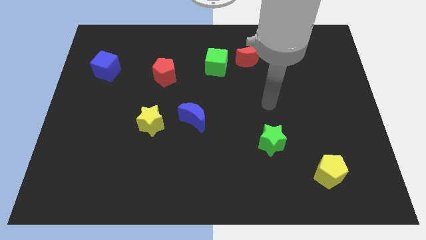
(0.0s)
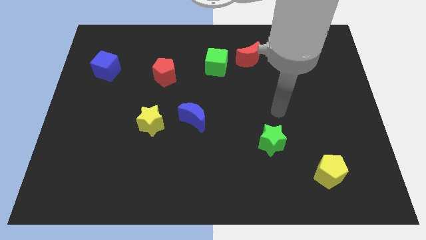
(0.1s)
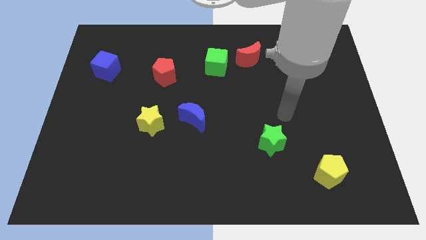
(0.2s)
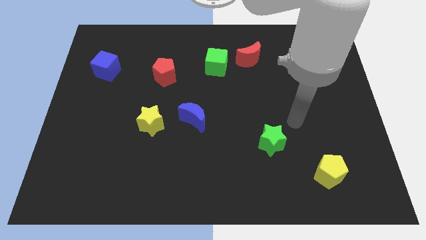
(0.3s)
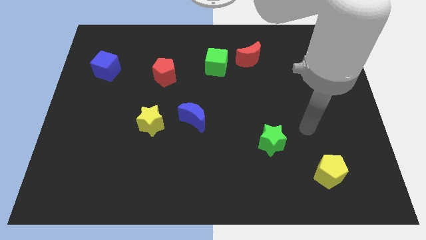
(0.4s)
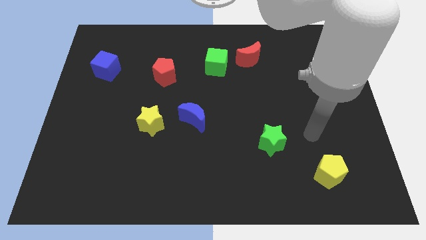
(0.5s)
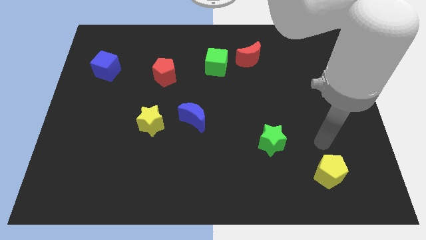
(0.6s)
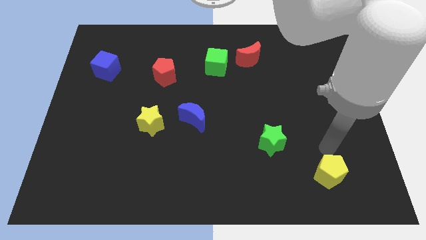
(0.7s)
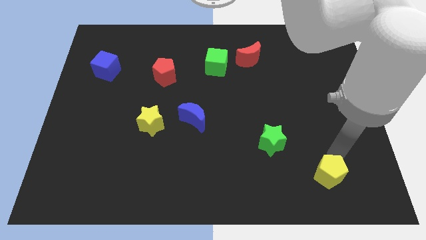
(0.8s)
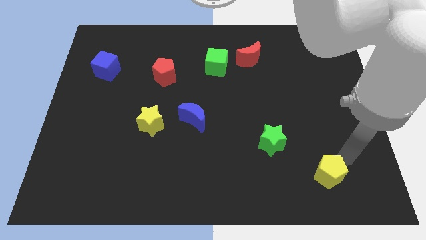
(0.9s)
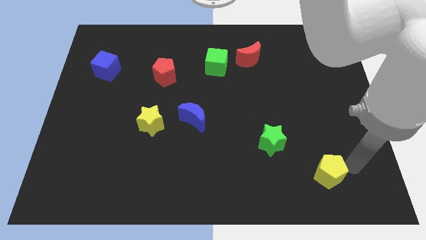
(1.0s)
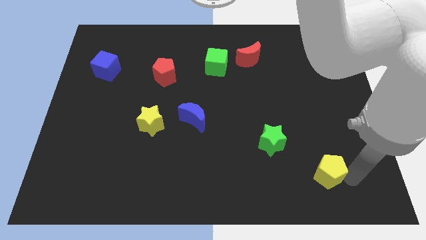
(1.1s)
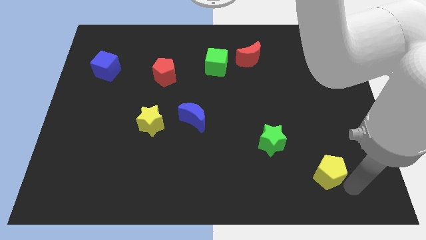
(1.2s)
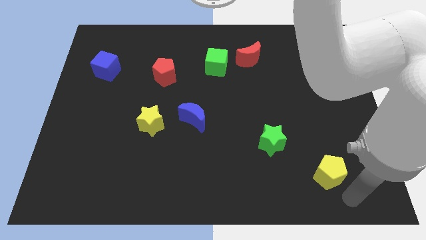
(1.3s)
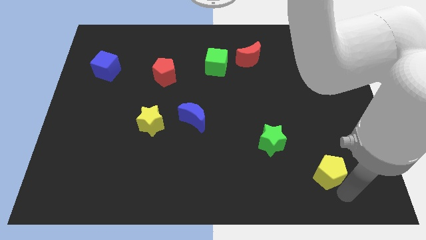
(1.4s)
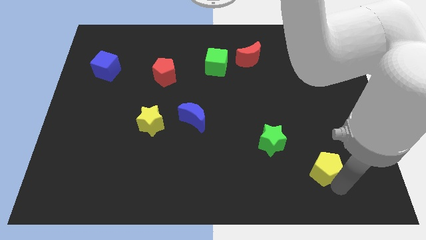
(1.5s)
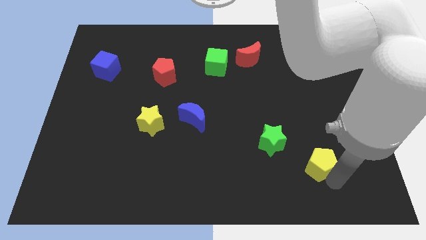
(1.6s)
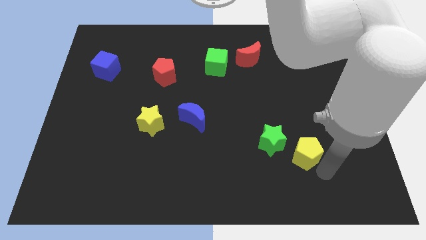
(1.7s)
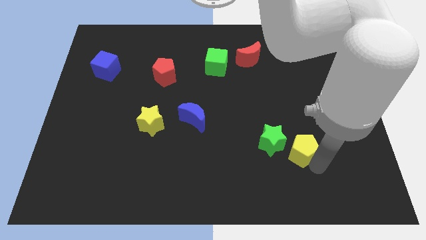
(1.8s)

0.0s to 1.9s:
move the yellow pentagon up and left somewhat

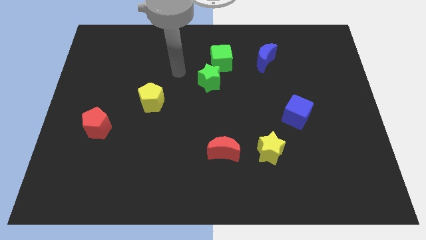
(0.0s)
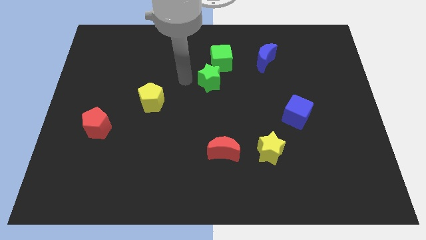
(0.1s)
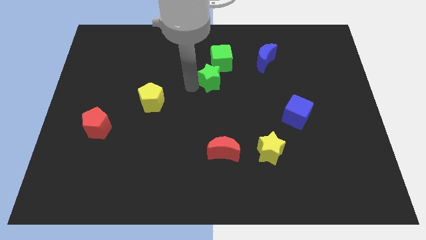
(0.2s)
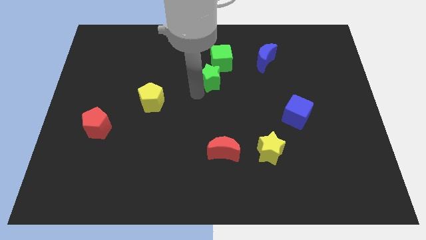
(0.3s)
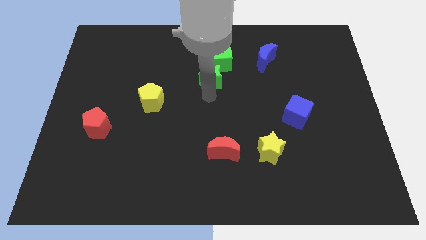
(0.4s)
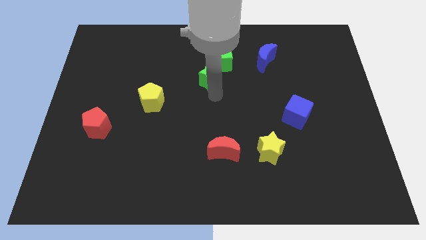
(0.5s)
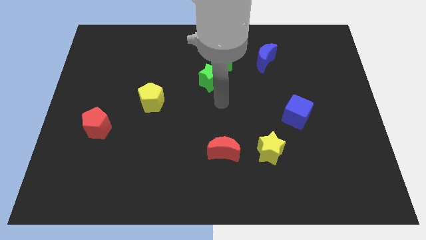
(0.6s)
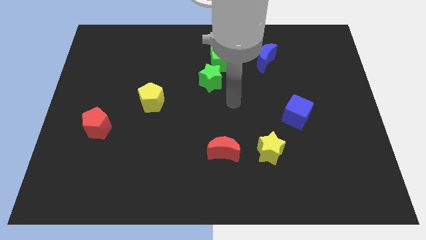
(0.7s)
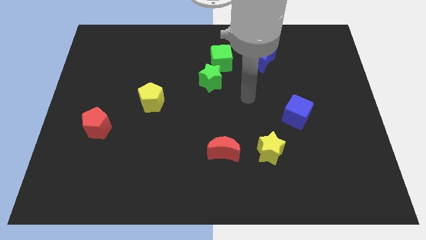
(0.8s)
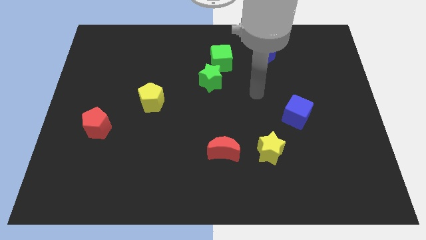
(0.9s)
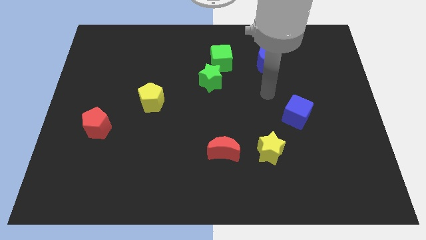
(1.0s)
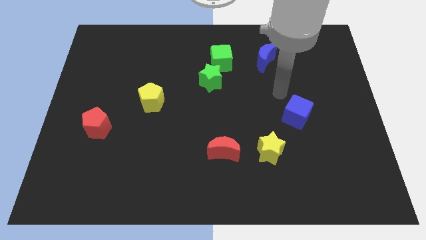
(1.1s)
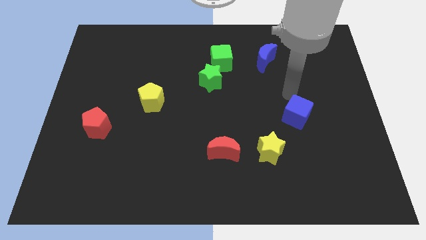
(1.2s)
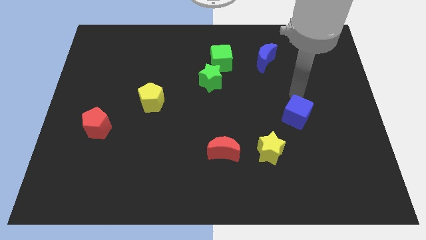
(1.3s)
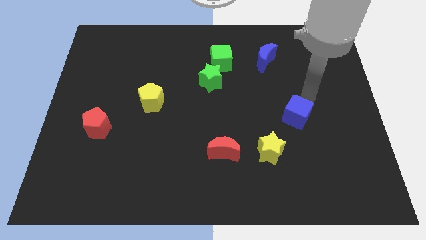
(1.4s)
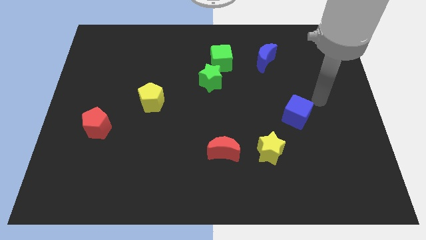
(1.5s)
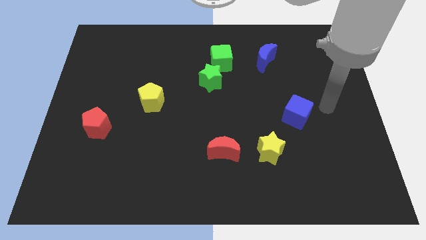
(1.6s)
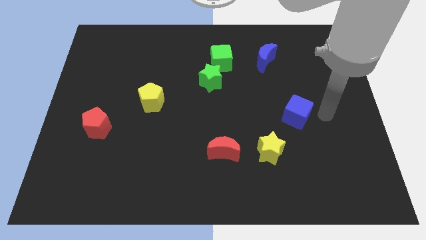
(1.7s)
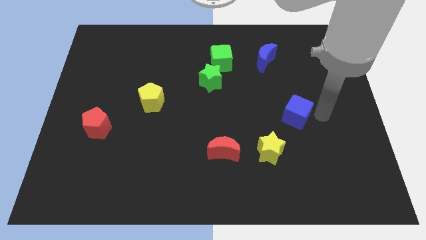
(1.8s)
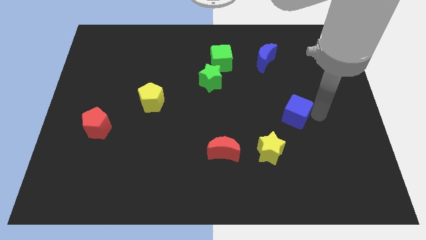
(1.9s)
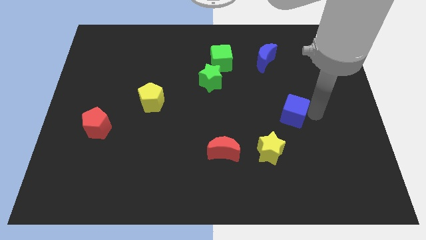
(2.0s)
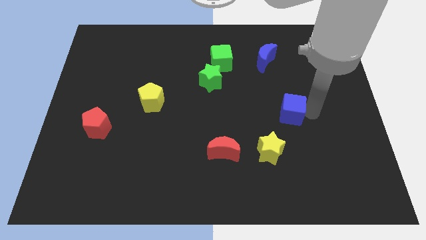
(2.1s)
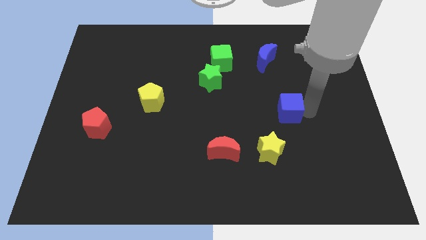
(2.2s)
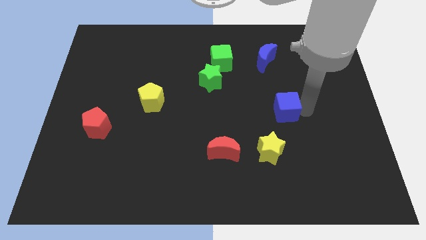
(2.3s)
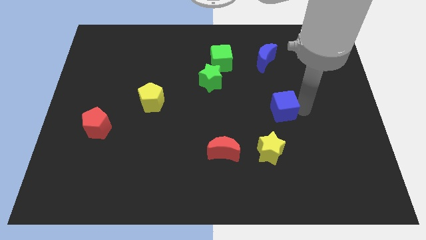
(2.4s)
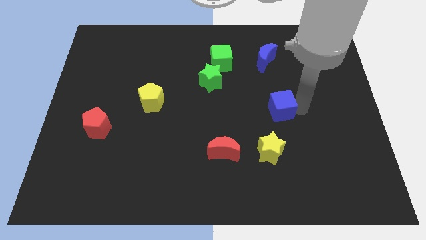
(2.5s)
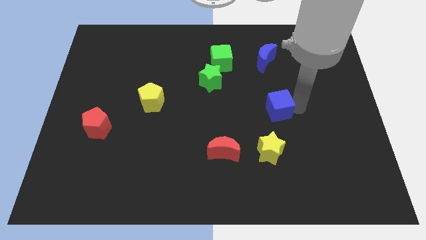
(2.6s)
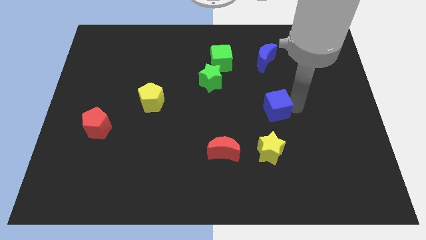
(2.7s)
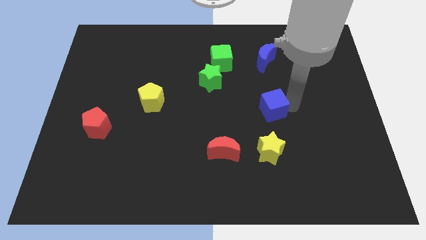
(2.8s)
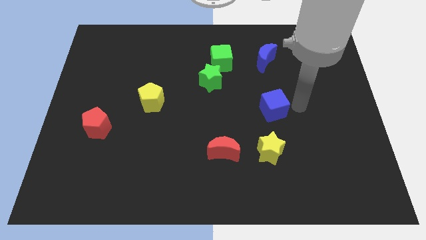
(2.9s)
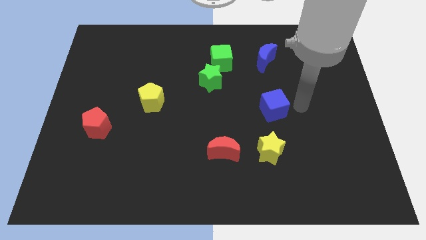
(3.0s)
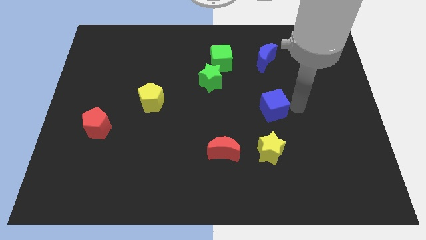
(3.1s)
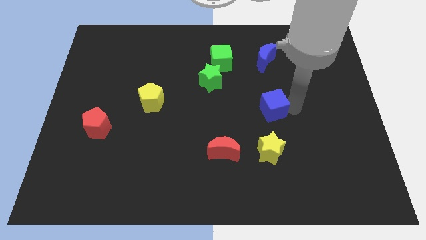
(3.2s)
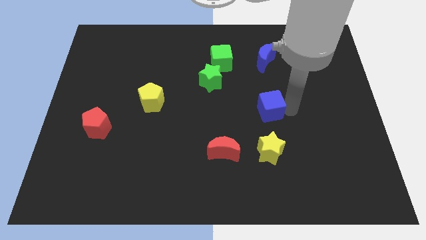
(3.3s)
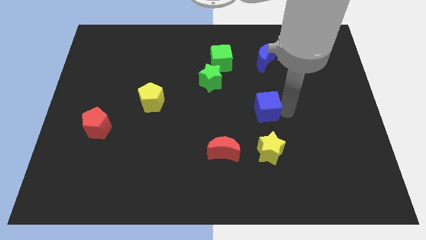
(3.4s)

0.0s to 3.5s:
slightly push the blue cube to the left

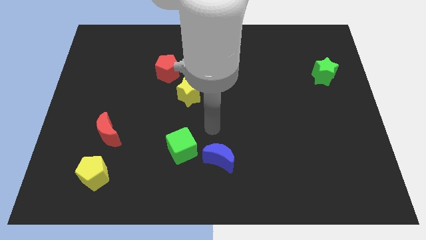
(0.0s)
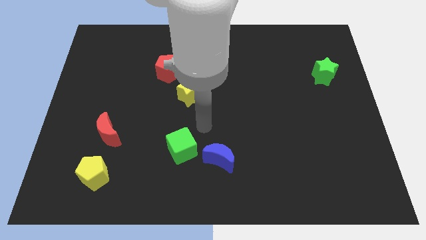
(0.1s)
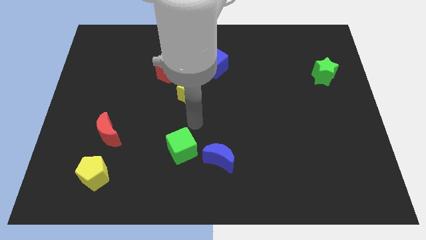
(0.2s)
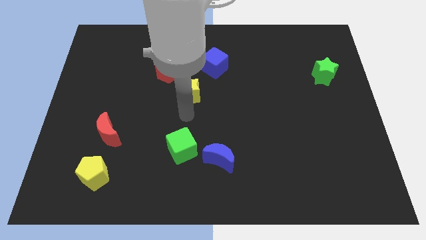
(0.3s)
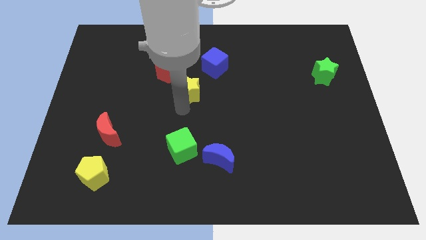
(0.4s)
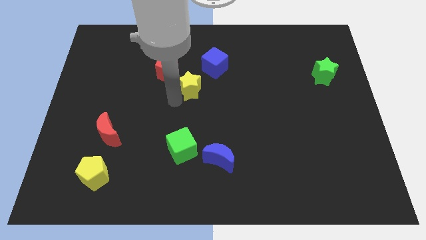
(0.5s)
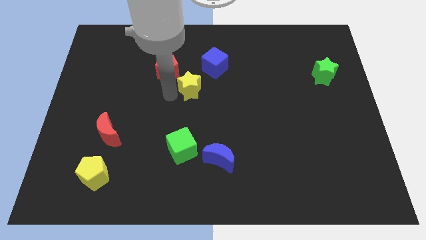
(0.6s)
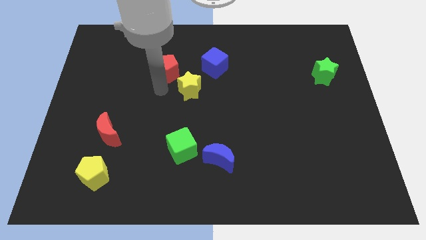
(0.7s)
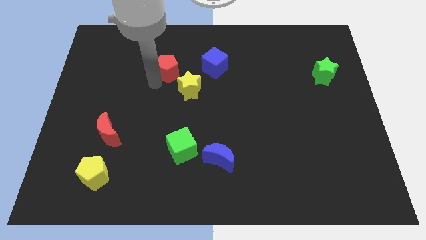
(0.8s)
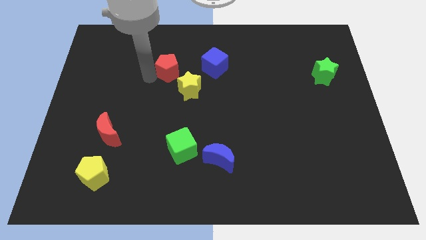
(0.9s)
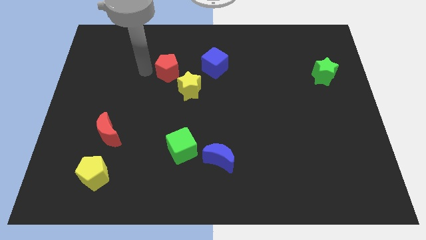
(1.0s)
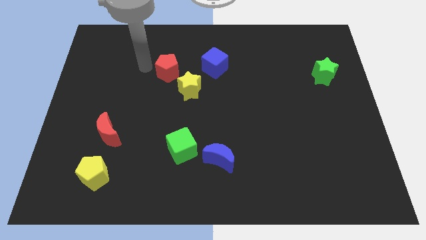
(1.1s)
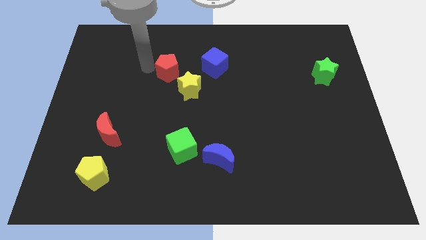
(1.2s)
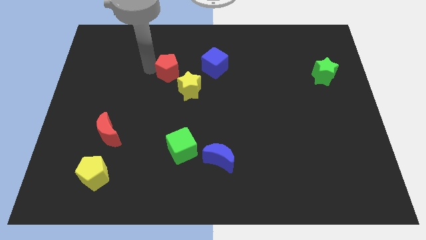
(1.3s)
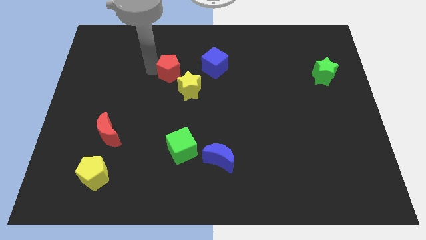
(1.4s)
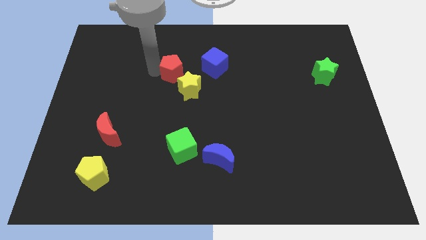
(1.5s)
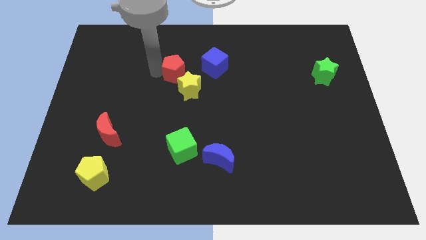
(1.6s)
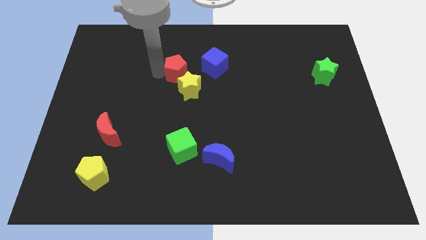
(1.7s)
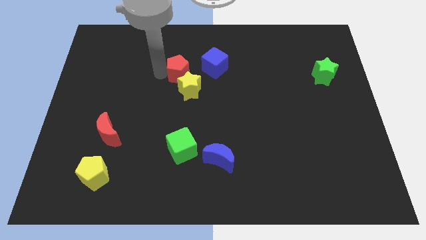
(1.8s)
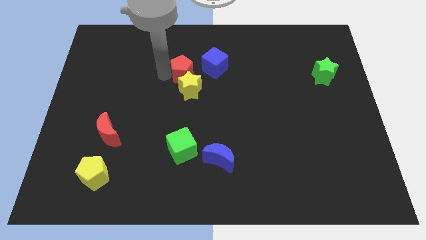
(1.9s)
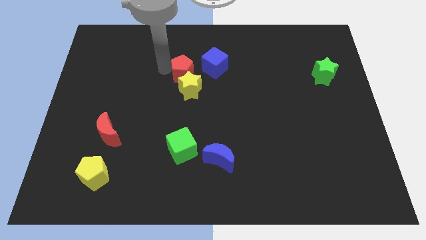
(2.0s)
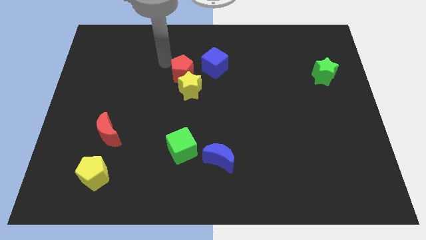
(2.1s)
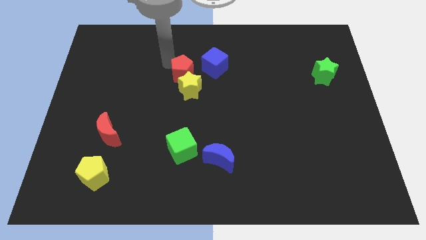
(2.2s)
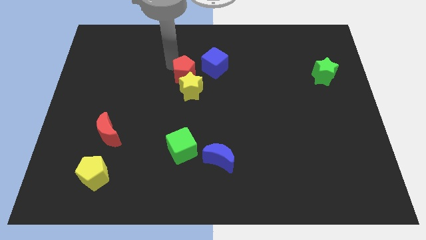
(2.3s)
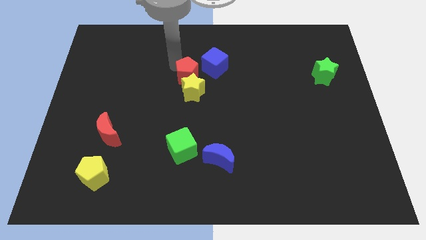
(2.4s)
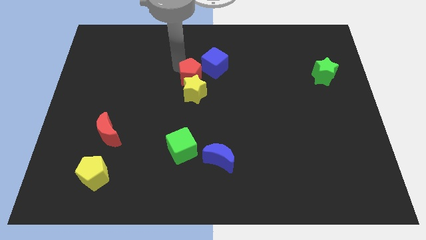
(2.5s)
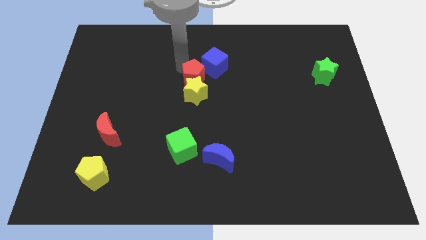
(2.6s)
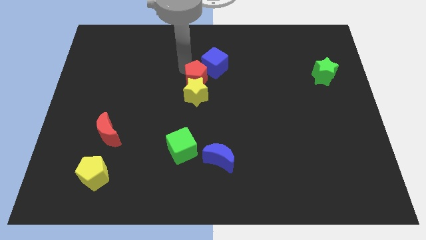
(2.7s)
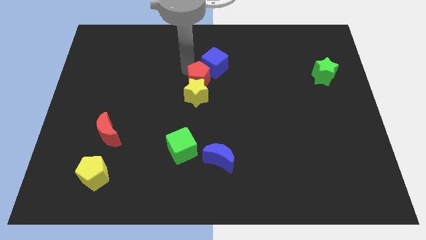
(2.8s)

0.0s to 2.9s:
slide the red pentagon slightly down and then to the right
